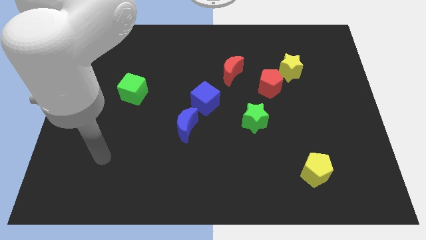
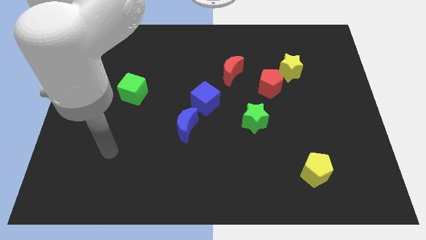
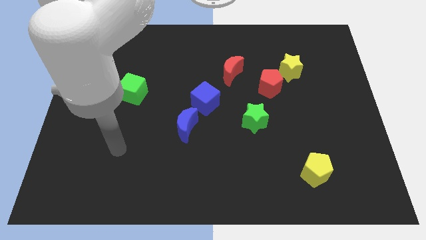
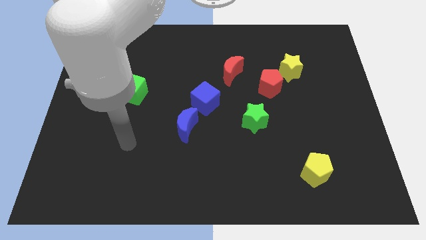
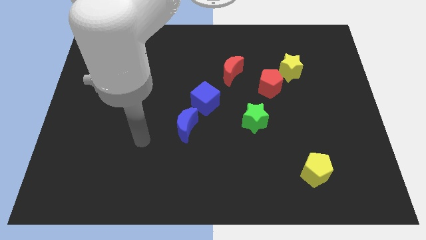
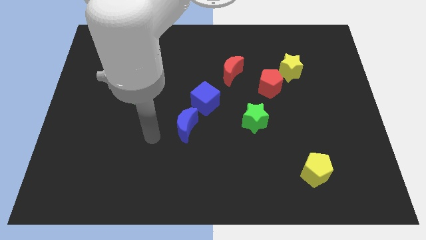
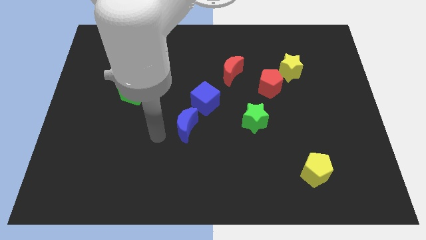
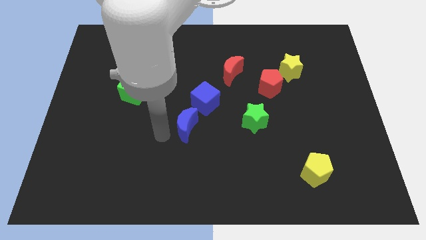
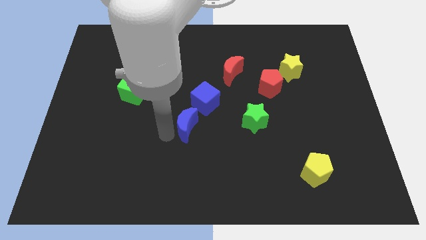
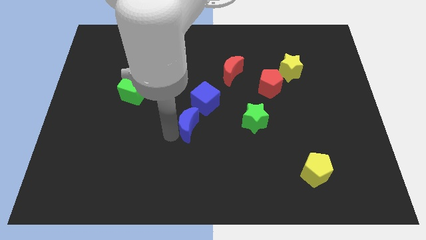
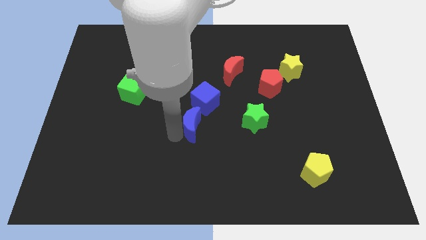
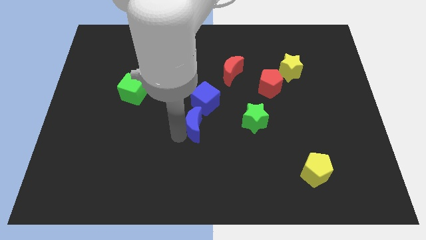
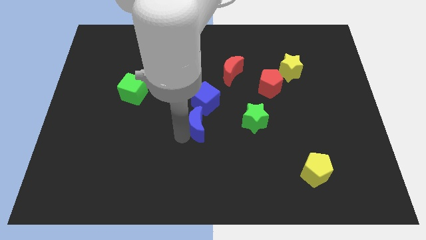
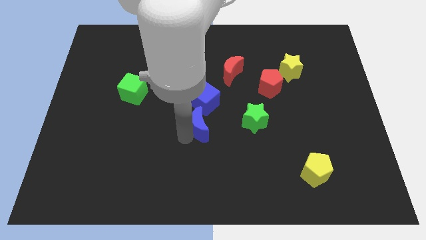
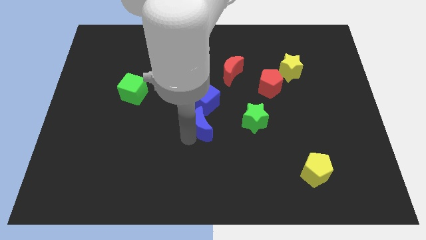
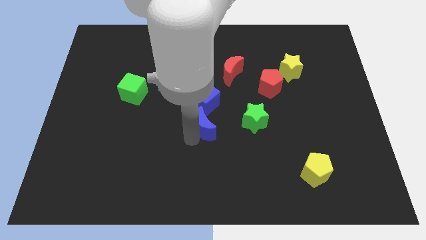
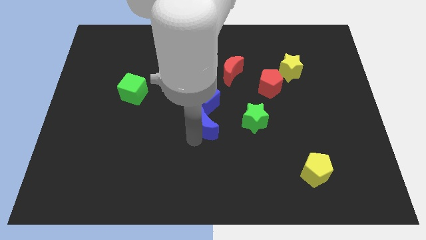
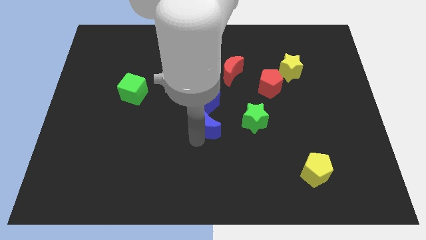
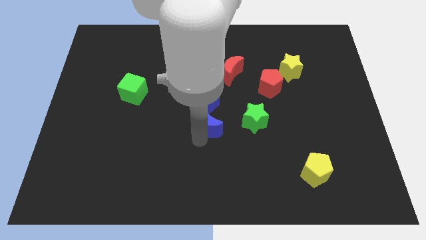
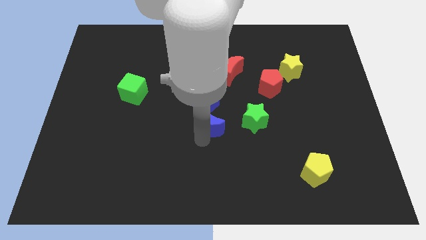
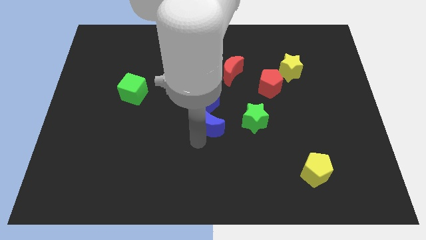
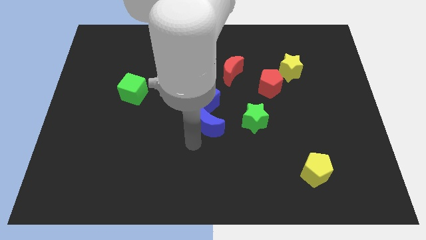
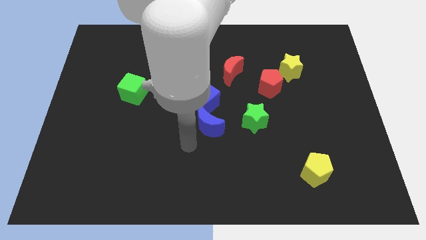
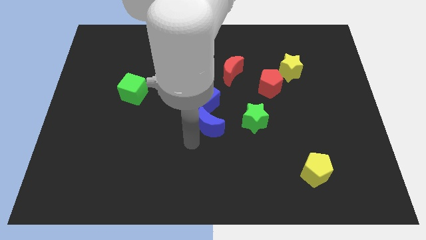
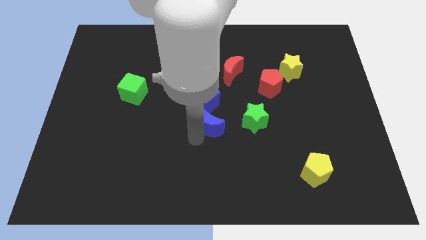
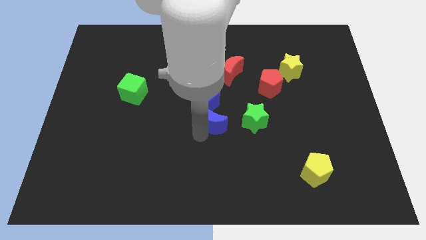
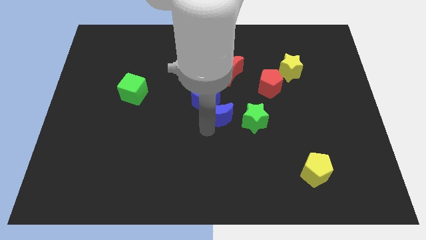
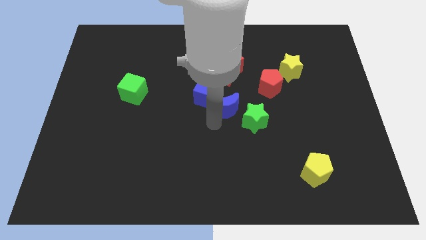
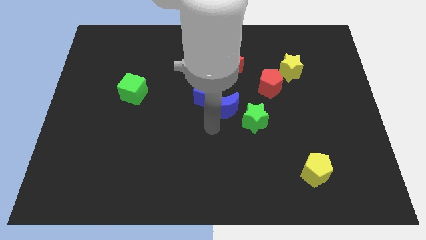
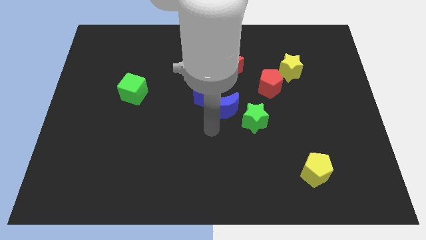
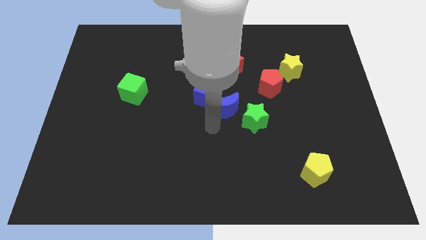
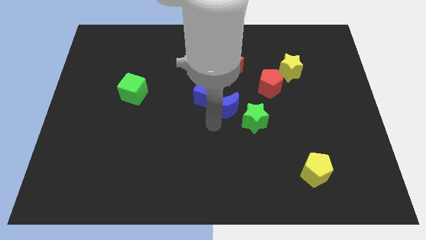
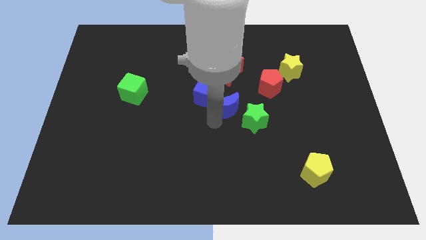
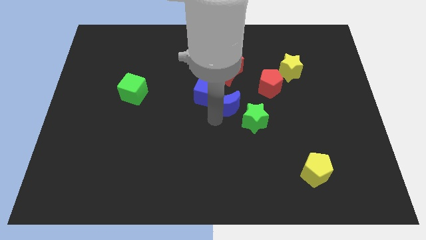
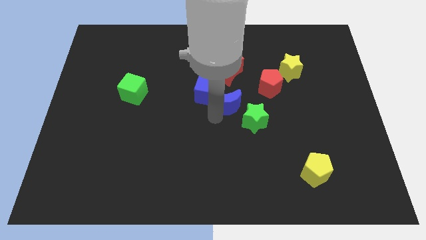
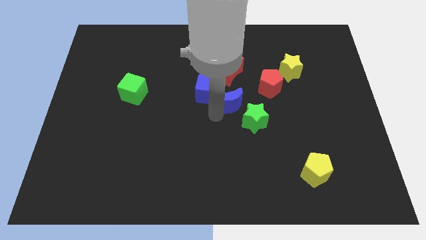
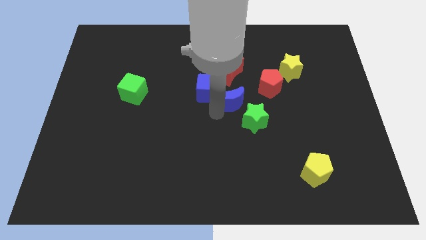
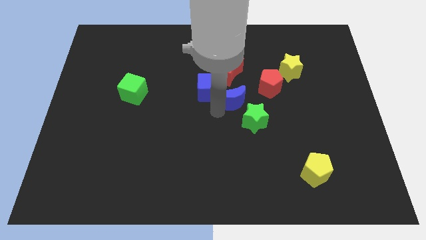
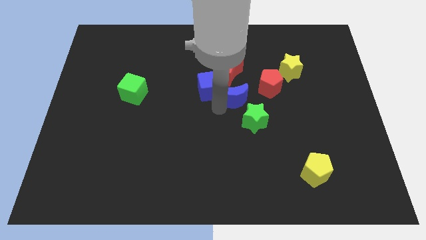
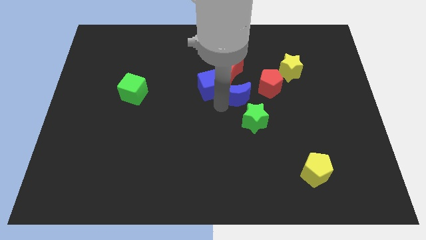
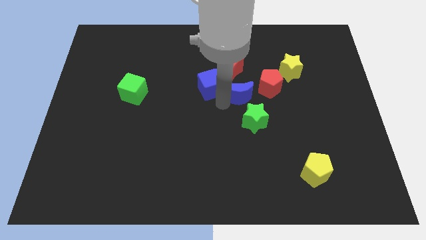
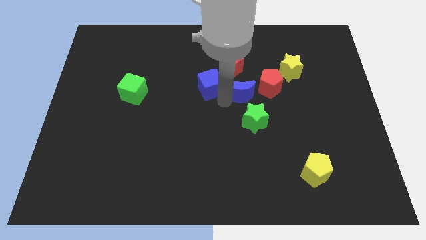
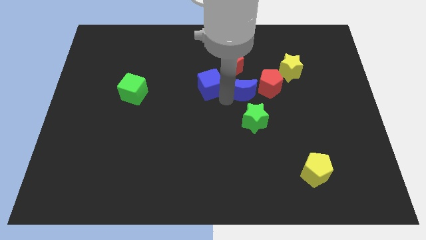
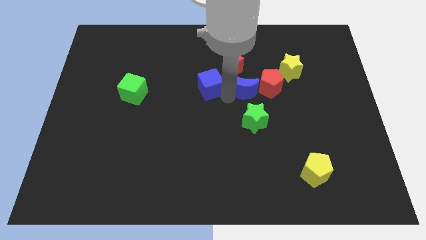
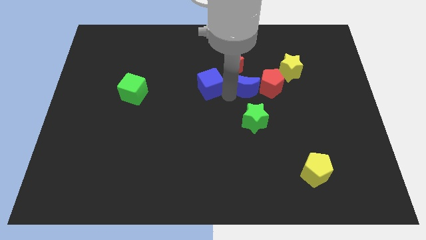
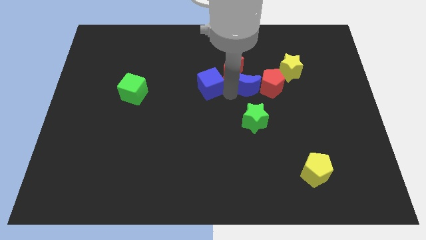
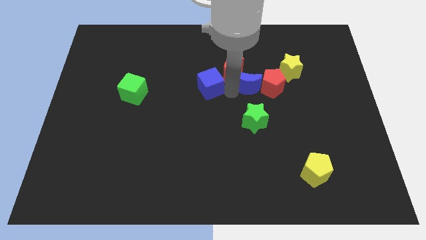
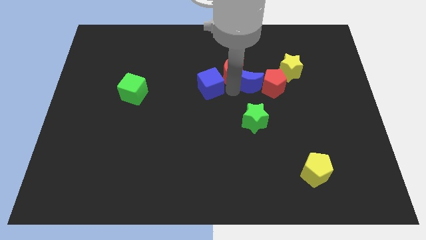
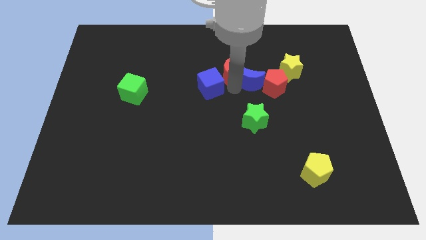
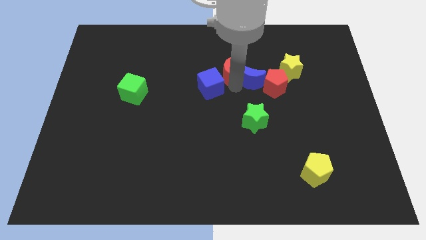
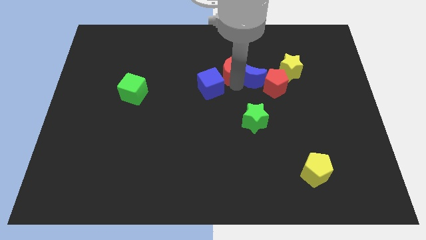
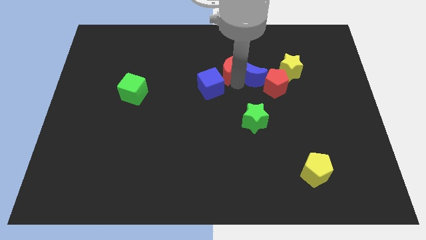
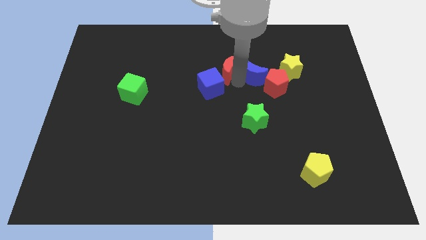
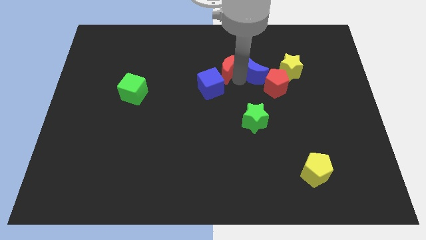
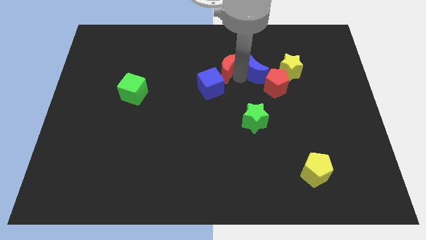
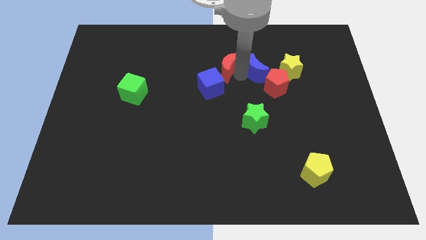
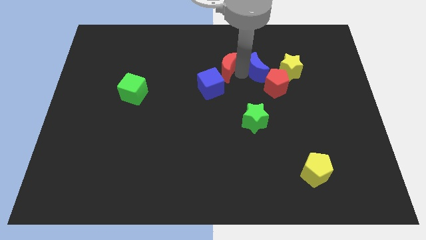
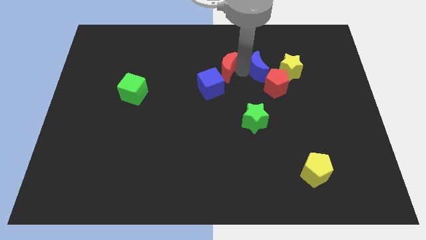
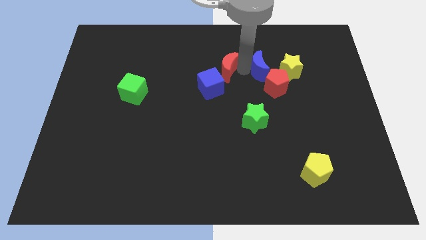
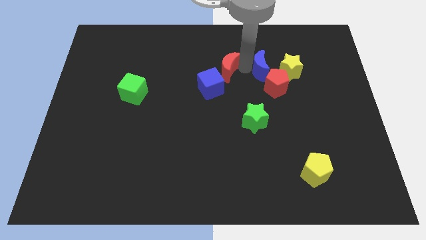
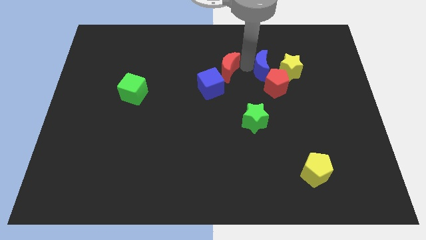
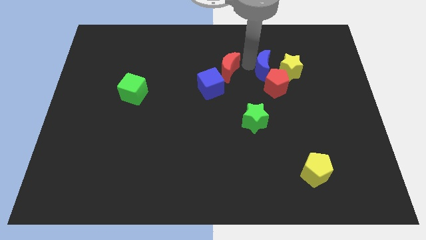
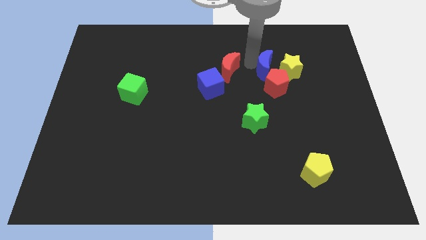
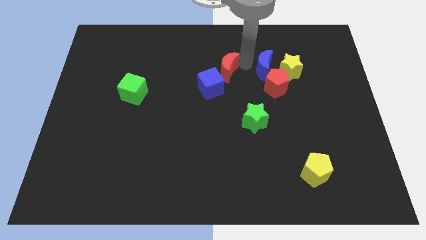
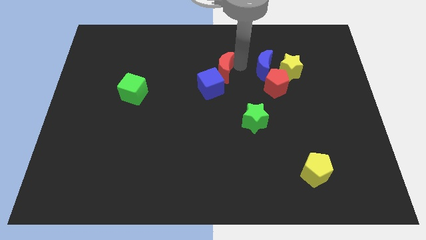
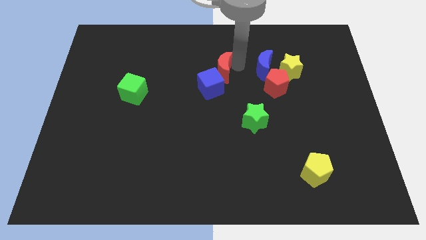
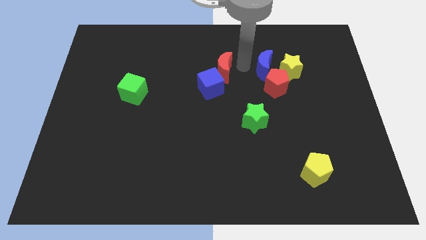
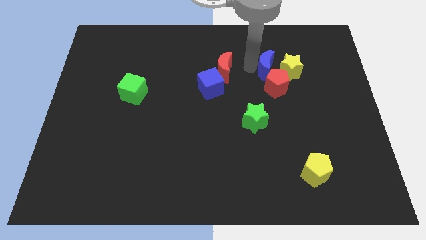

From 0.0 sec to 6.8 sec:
move the blue moon to the yellow star

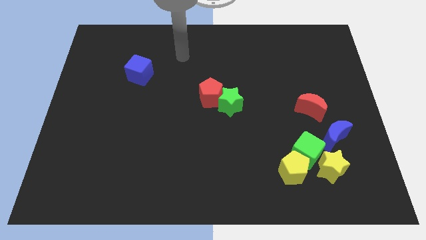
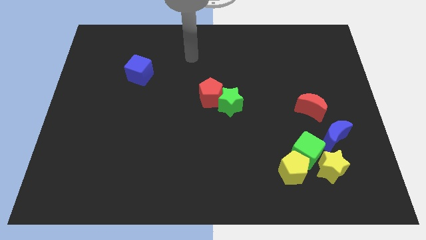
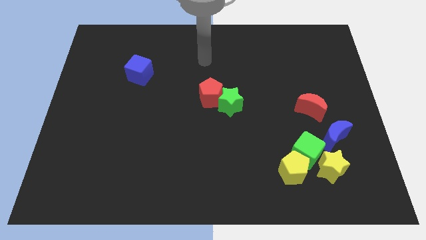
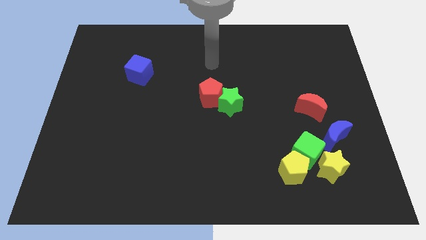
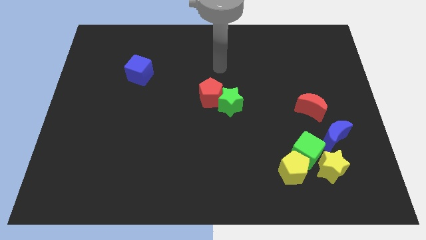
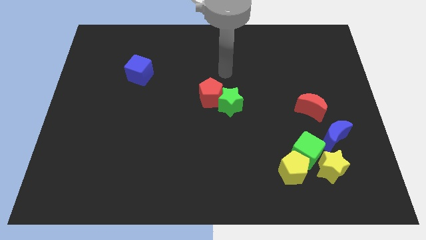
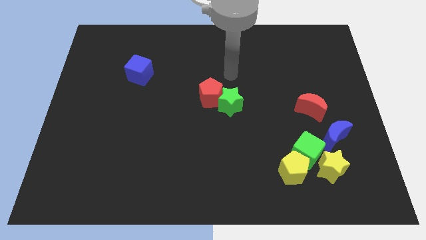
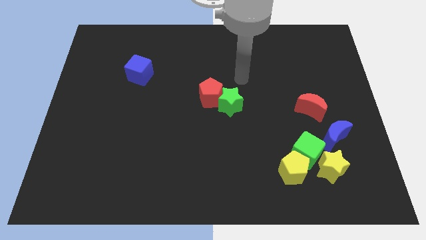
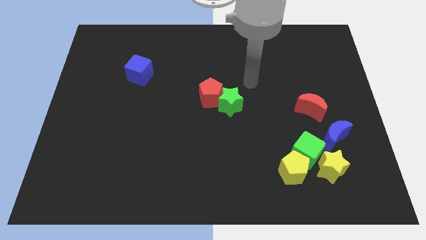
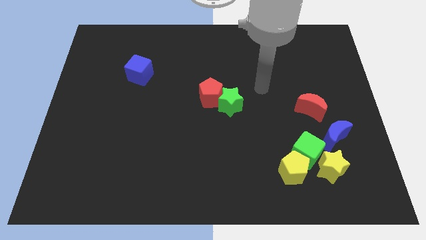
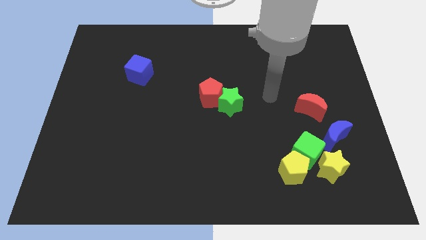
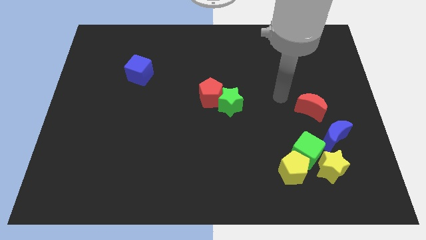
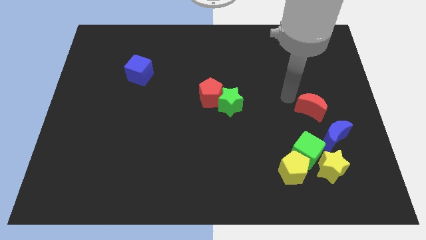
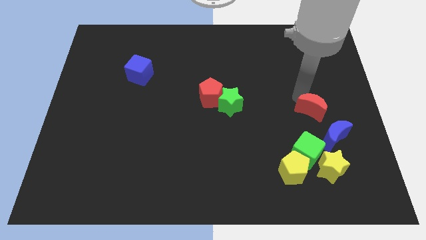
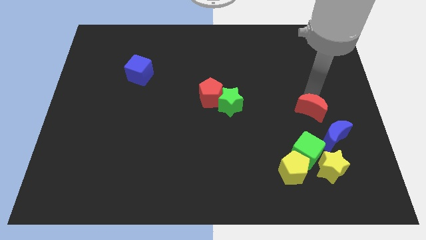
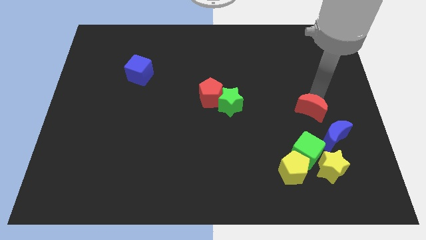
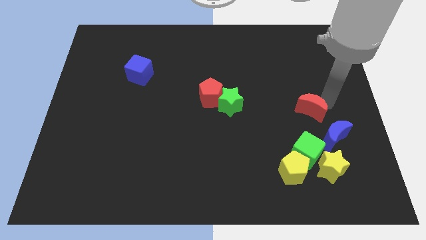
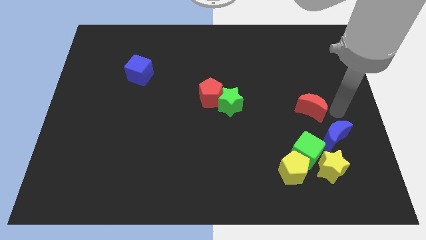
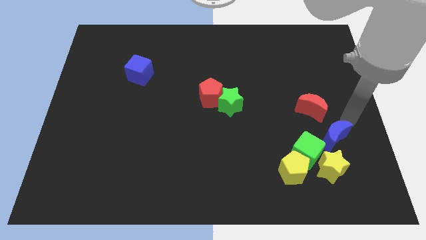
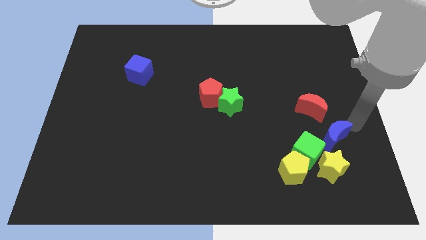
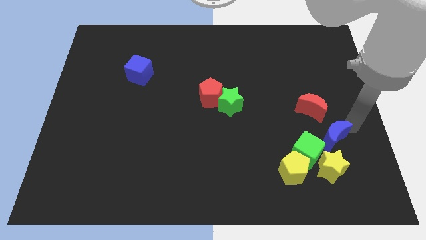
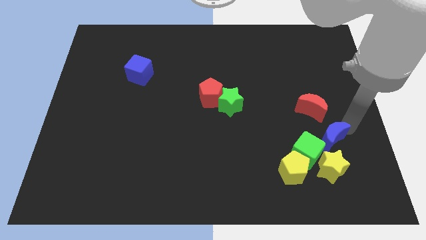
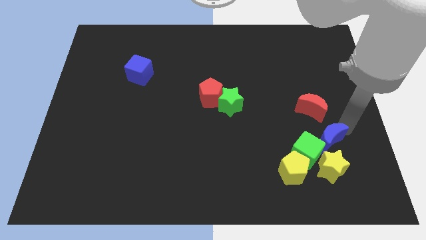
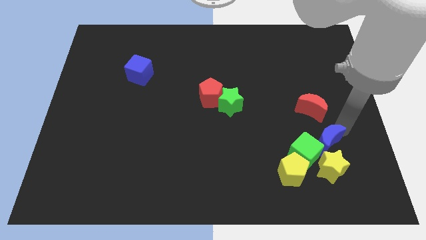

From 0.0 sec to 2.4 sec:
push the blue moon next to the green cube
